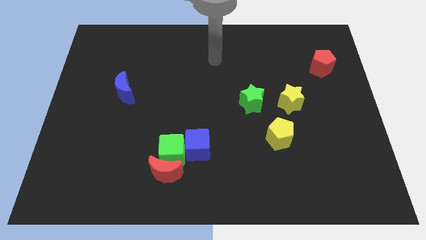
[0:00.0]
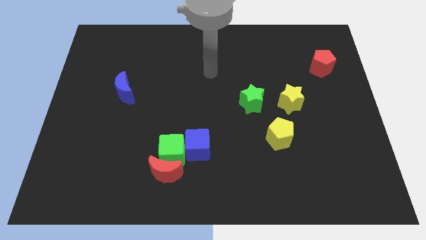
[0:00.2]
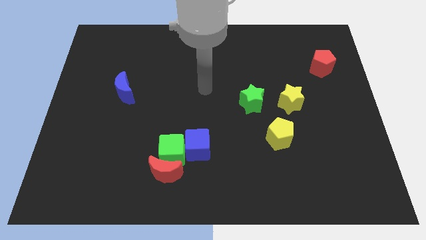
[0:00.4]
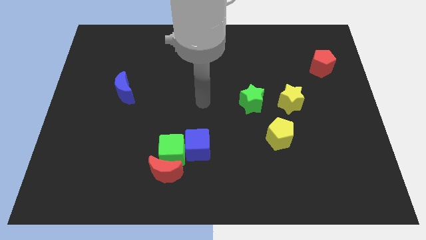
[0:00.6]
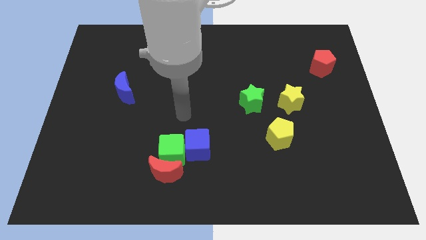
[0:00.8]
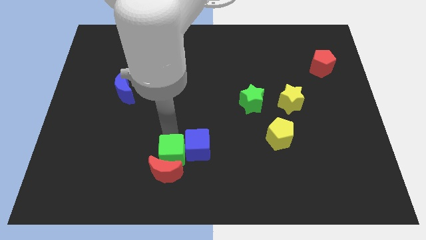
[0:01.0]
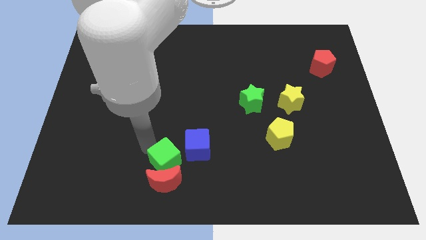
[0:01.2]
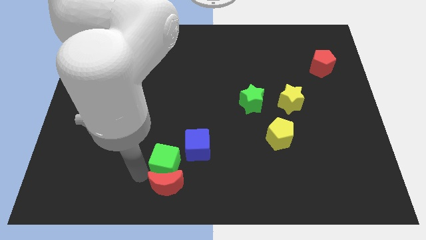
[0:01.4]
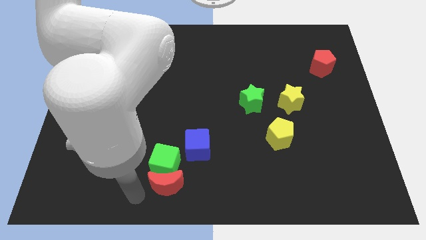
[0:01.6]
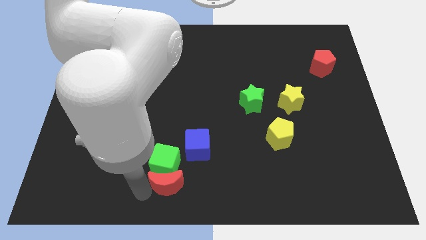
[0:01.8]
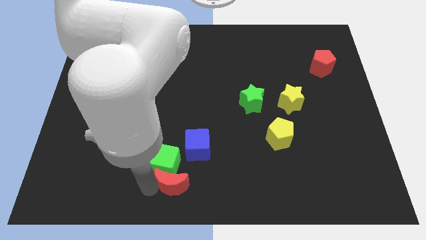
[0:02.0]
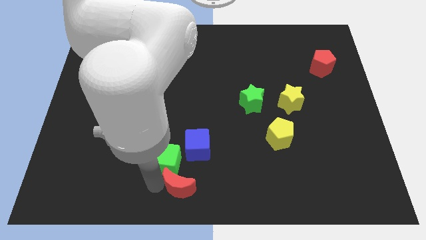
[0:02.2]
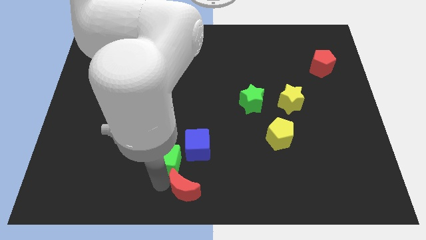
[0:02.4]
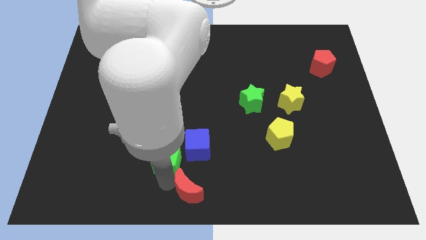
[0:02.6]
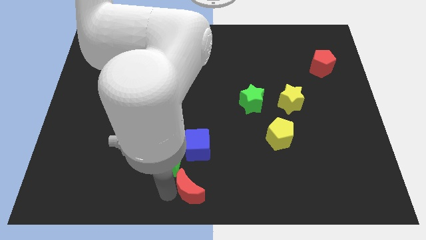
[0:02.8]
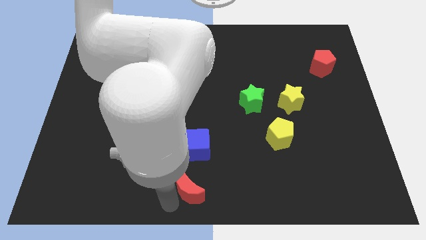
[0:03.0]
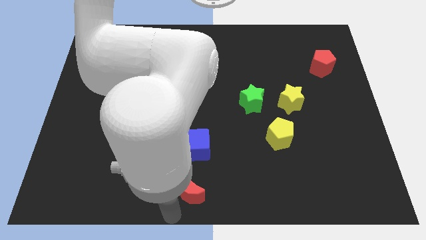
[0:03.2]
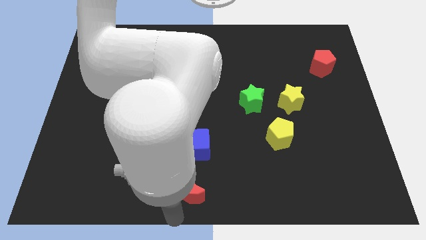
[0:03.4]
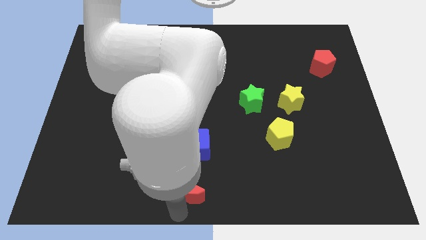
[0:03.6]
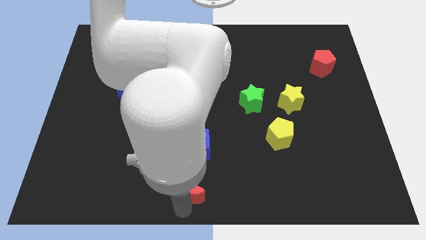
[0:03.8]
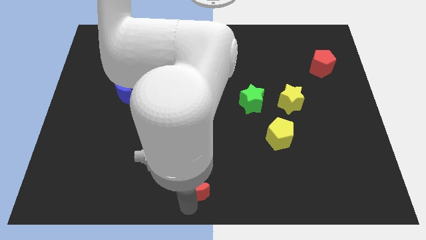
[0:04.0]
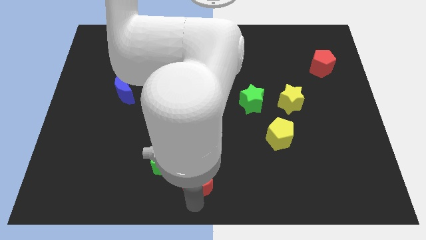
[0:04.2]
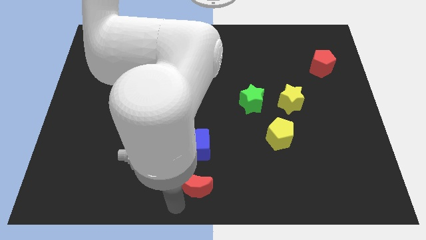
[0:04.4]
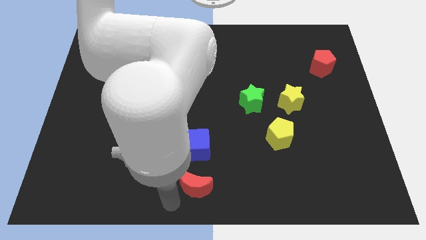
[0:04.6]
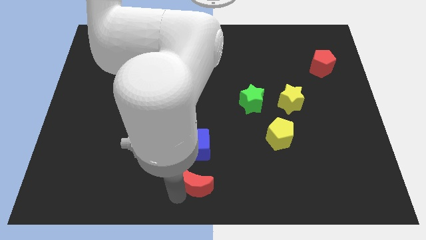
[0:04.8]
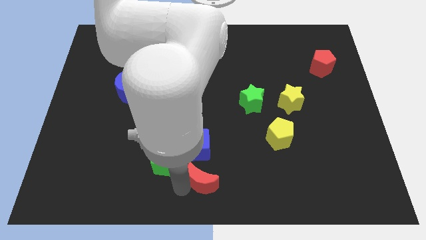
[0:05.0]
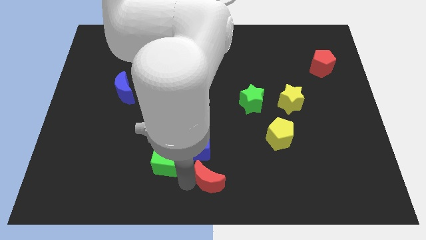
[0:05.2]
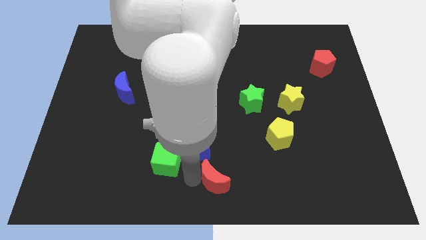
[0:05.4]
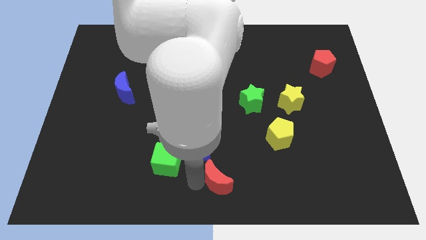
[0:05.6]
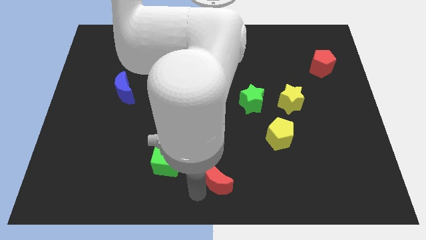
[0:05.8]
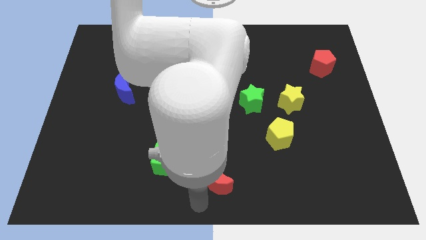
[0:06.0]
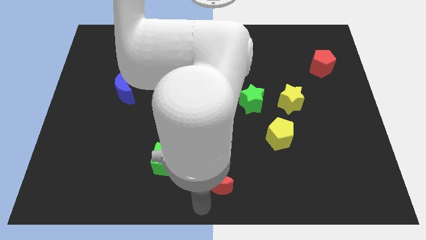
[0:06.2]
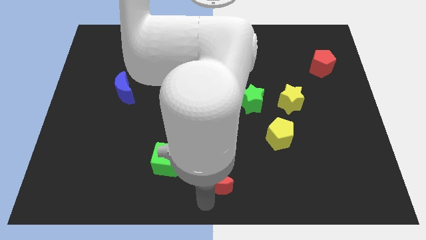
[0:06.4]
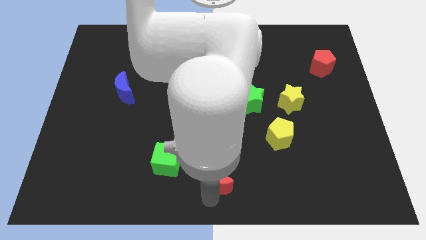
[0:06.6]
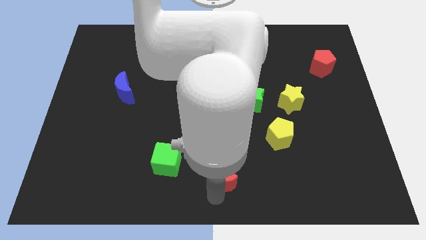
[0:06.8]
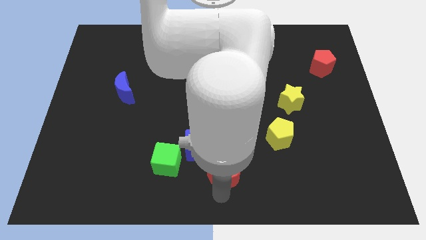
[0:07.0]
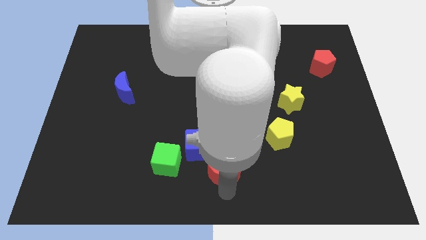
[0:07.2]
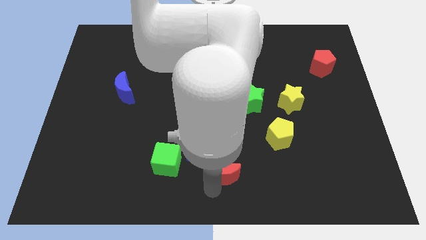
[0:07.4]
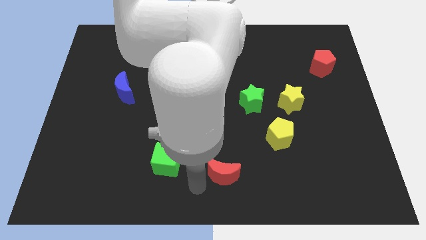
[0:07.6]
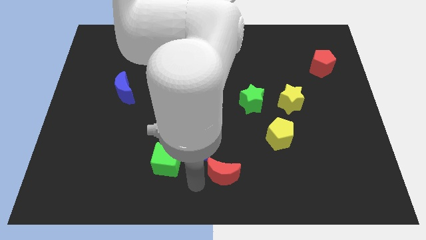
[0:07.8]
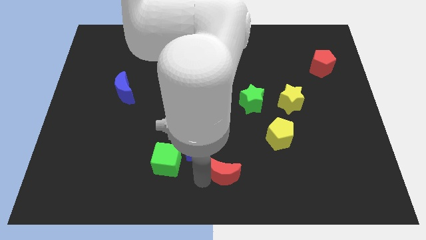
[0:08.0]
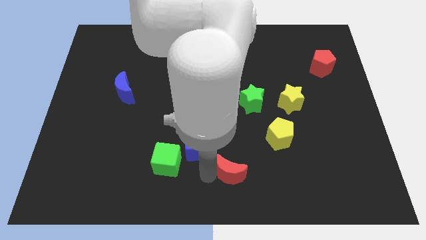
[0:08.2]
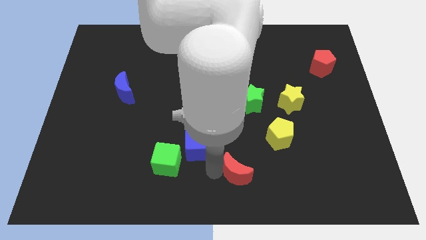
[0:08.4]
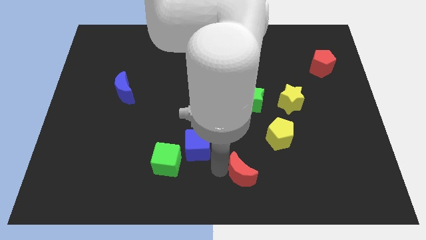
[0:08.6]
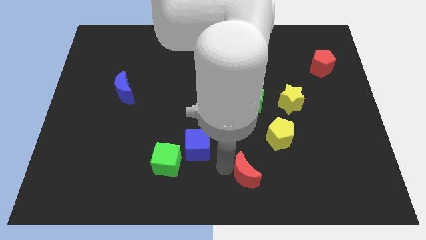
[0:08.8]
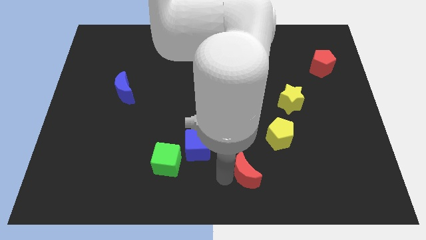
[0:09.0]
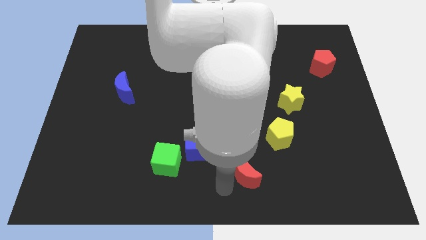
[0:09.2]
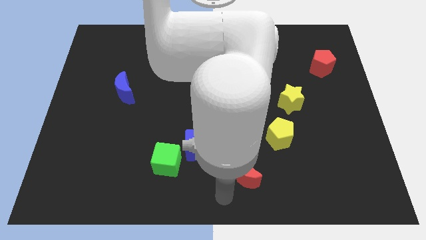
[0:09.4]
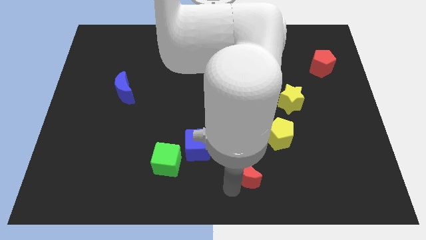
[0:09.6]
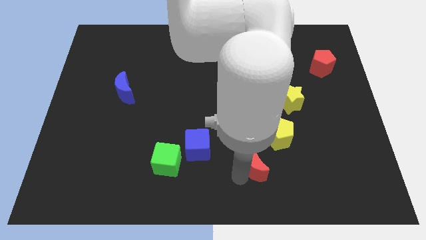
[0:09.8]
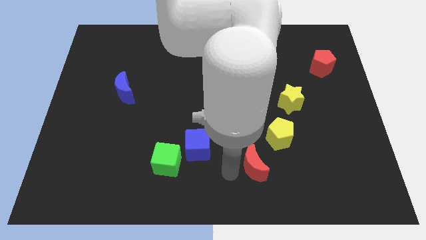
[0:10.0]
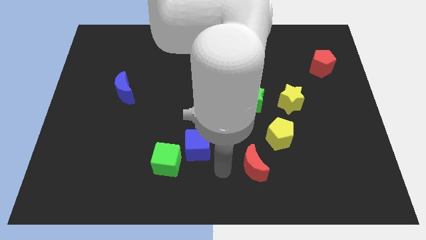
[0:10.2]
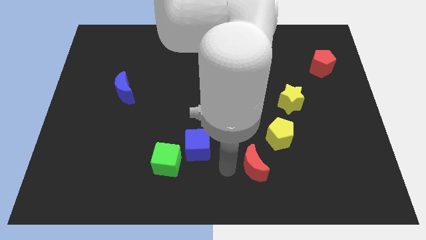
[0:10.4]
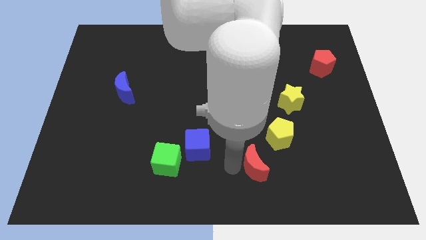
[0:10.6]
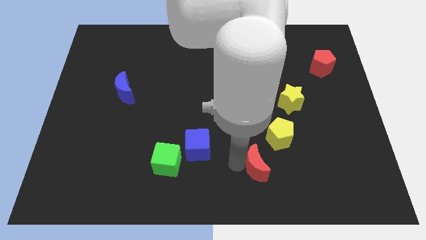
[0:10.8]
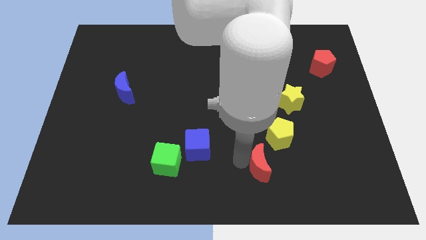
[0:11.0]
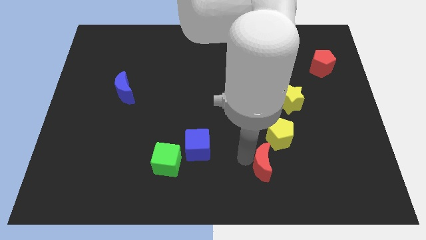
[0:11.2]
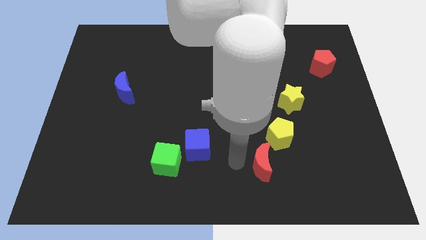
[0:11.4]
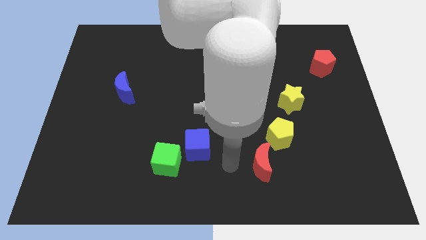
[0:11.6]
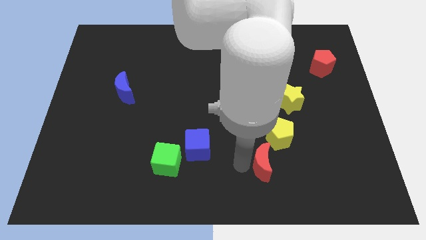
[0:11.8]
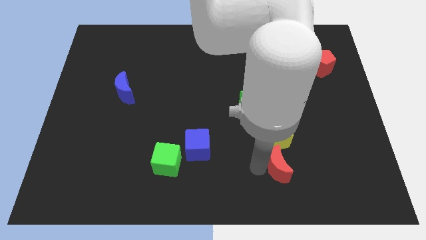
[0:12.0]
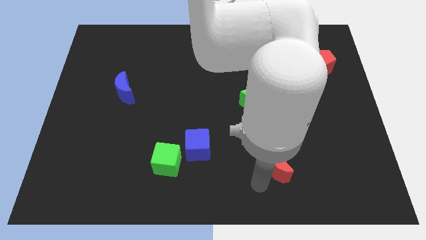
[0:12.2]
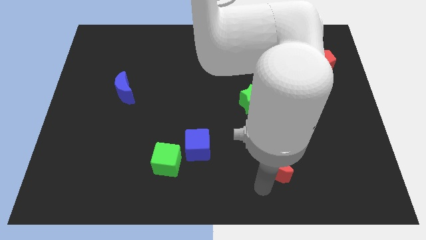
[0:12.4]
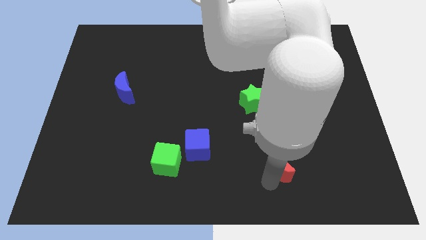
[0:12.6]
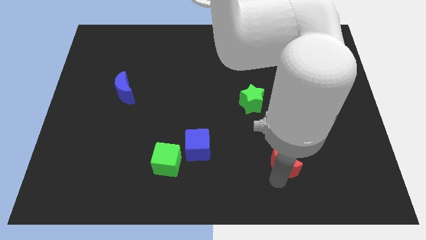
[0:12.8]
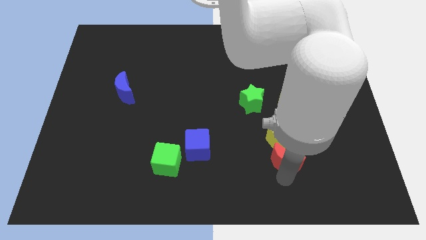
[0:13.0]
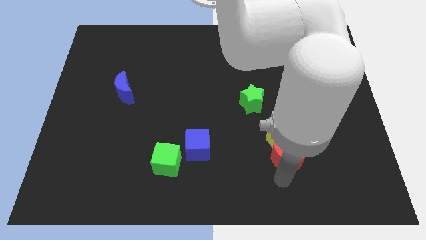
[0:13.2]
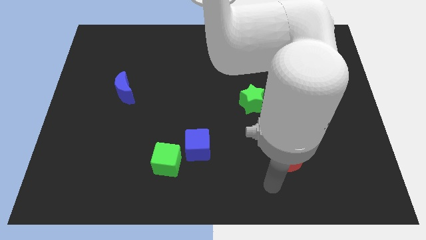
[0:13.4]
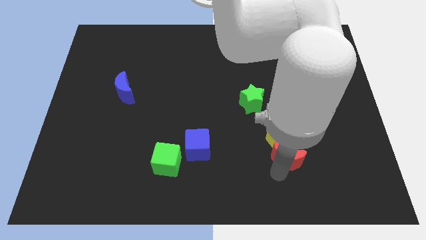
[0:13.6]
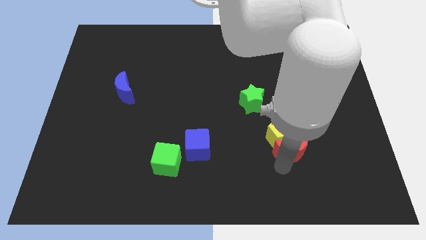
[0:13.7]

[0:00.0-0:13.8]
put the red moon to the bottom side of the yellow star

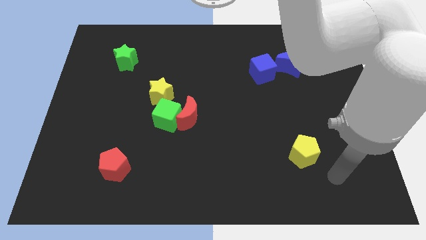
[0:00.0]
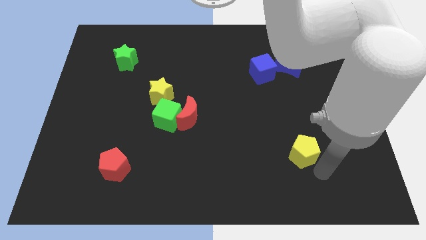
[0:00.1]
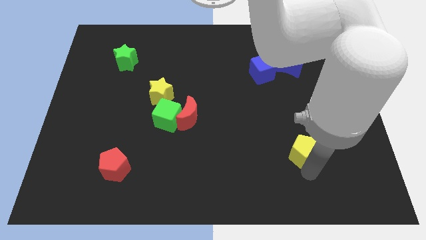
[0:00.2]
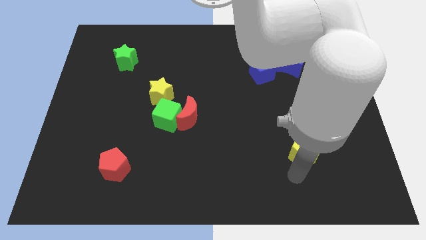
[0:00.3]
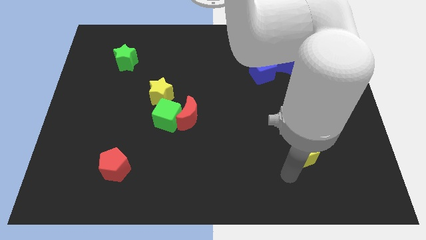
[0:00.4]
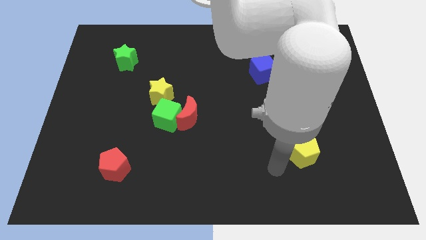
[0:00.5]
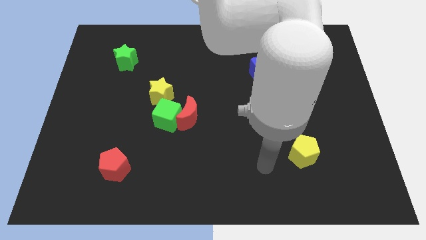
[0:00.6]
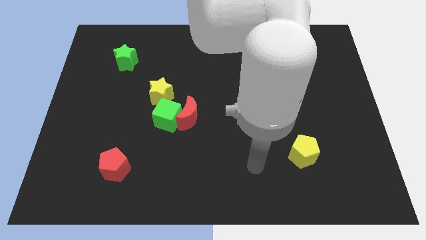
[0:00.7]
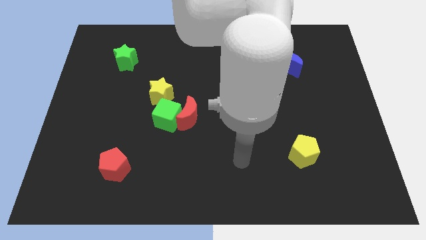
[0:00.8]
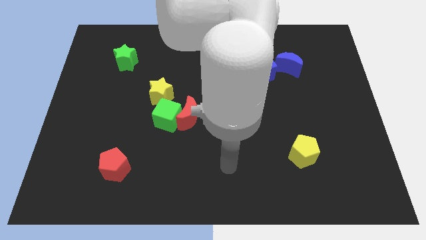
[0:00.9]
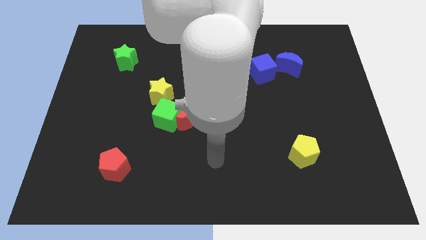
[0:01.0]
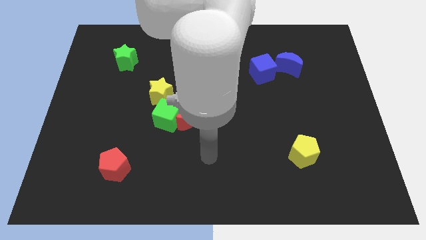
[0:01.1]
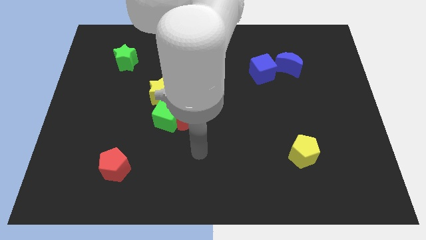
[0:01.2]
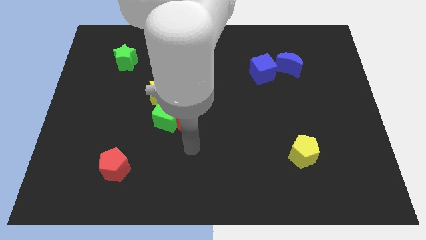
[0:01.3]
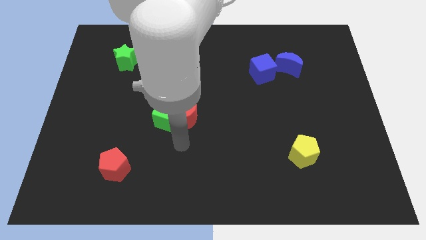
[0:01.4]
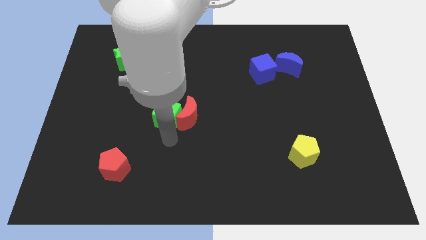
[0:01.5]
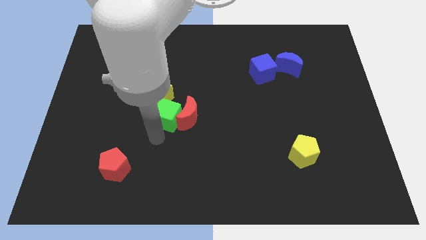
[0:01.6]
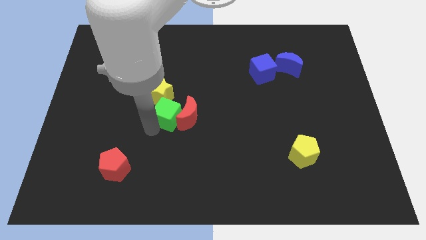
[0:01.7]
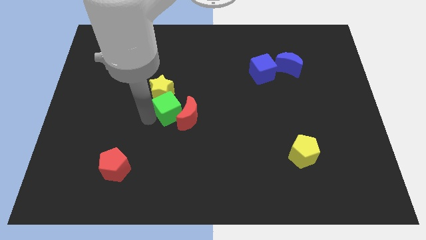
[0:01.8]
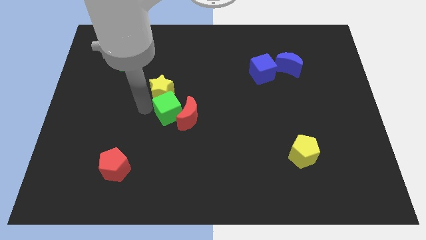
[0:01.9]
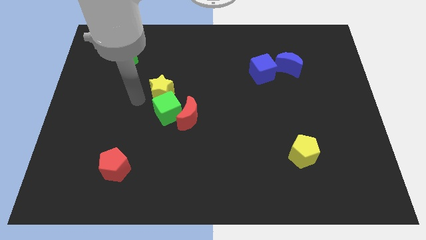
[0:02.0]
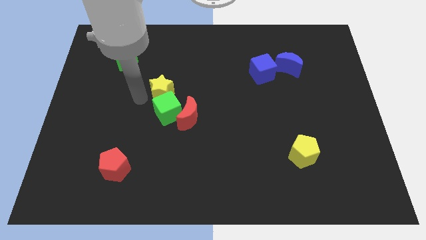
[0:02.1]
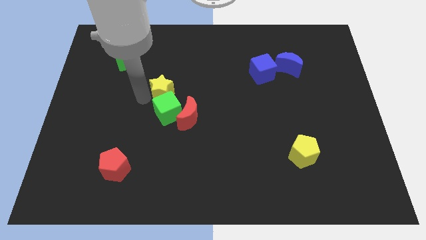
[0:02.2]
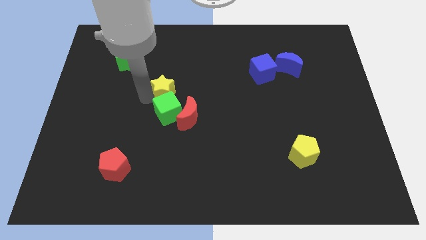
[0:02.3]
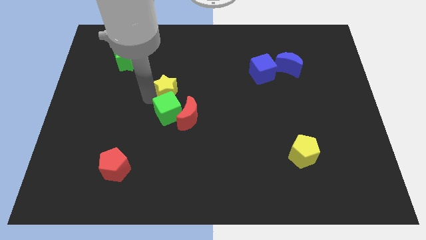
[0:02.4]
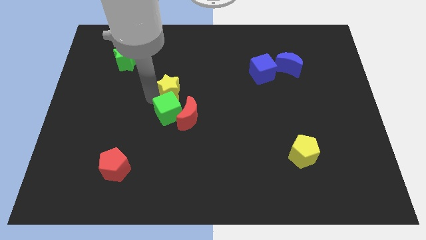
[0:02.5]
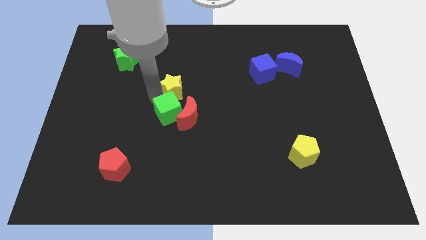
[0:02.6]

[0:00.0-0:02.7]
put the yellow star to the top of the red moon
